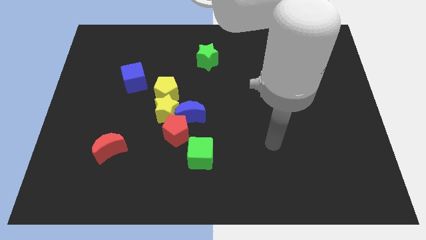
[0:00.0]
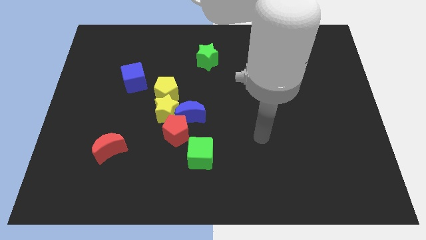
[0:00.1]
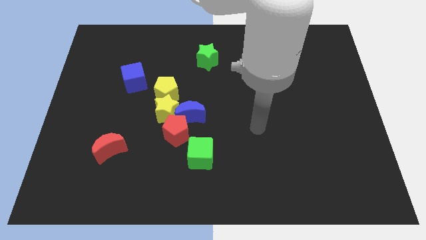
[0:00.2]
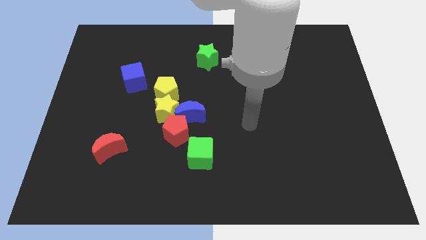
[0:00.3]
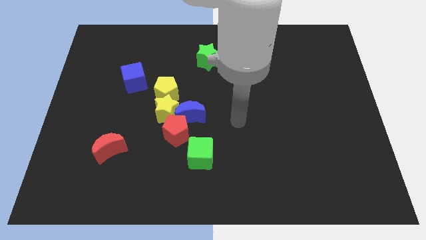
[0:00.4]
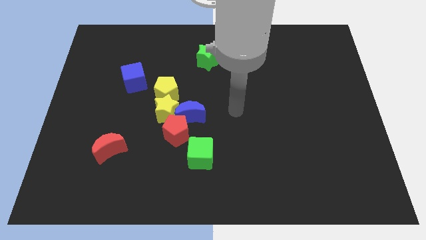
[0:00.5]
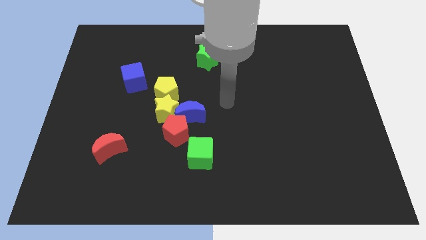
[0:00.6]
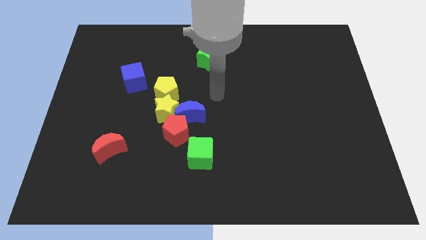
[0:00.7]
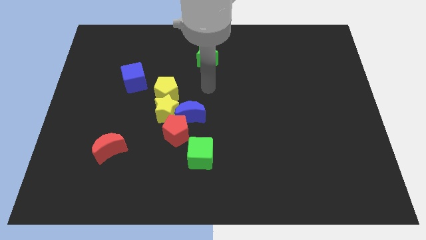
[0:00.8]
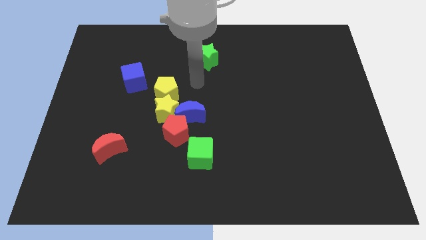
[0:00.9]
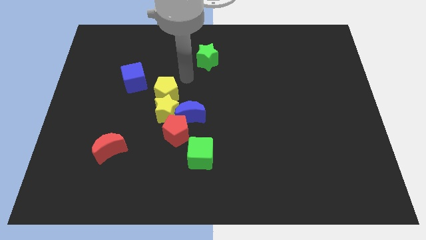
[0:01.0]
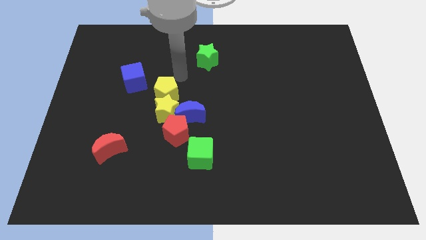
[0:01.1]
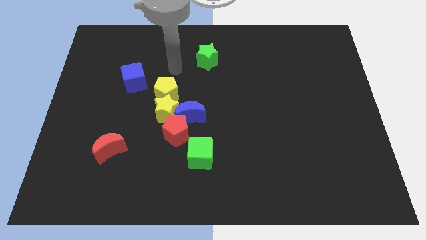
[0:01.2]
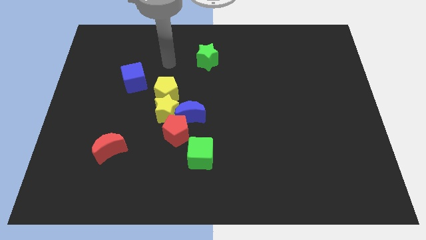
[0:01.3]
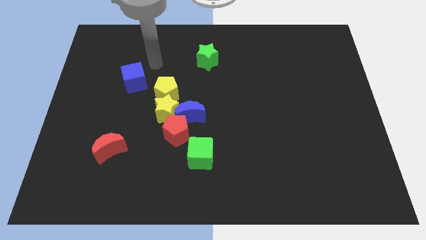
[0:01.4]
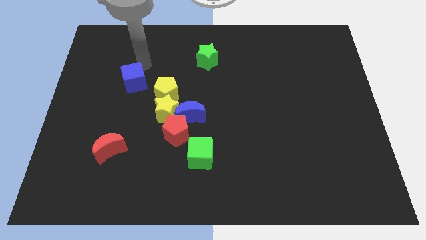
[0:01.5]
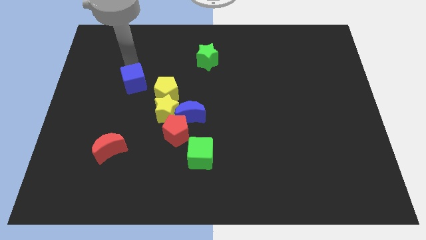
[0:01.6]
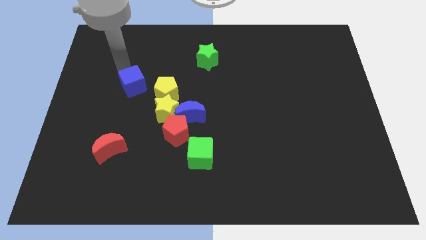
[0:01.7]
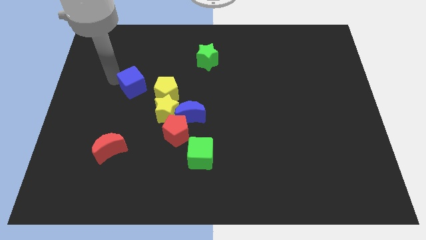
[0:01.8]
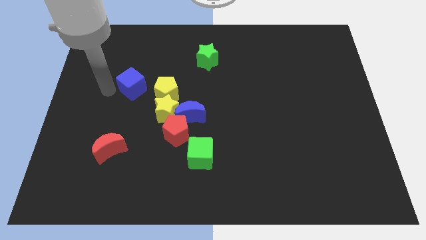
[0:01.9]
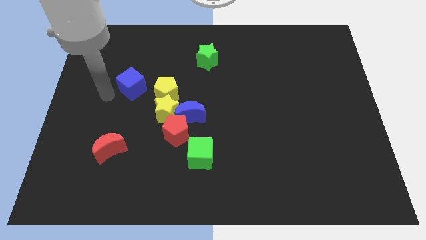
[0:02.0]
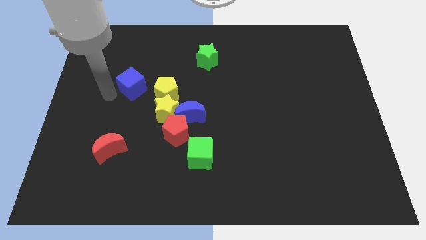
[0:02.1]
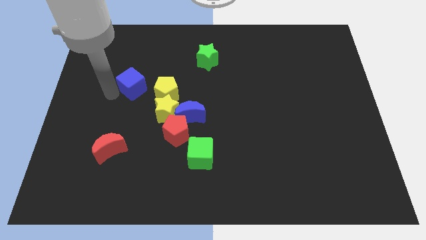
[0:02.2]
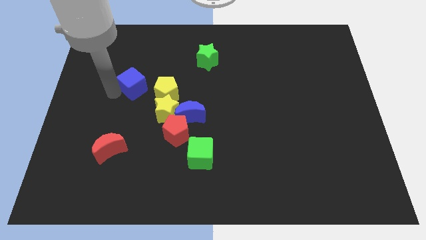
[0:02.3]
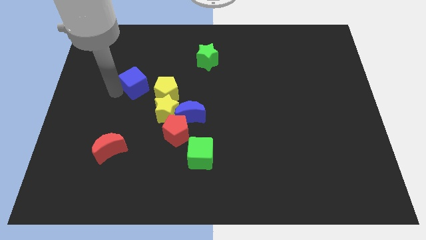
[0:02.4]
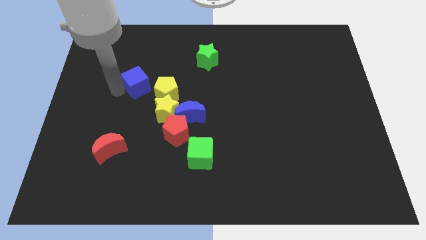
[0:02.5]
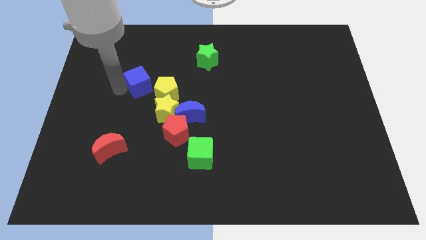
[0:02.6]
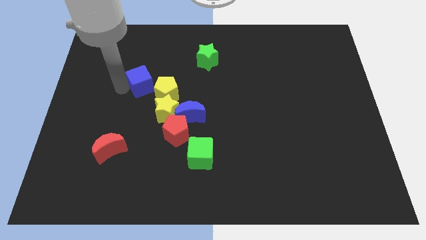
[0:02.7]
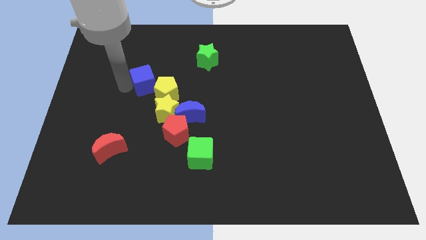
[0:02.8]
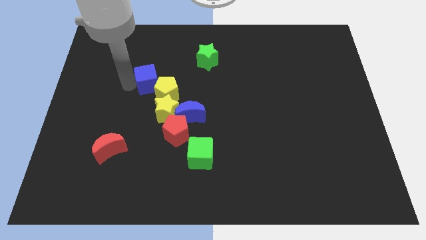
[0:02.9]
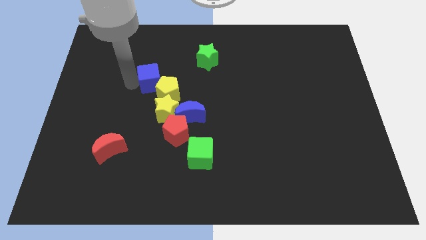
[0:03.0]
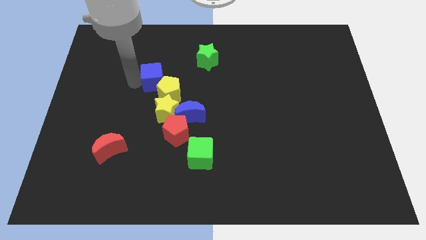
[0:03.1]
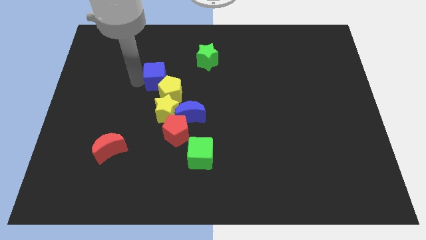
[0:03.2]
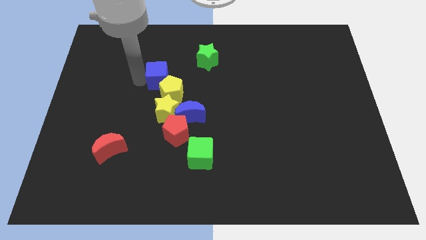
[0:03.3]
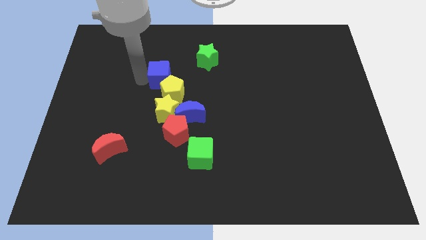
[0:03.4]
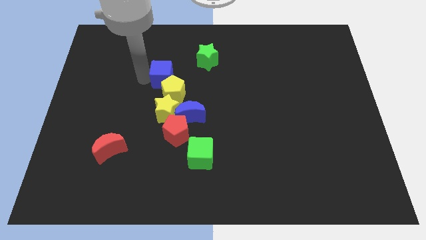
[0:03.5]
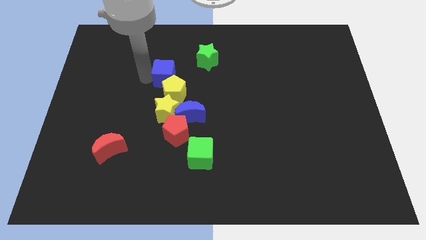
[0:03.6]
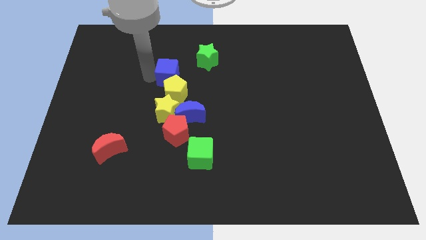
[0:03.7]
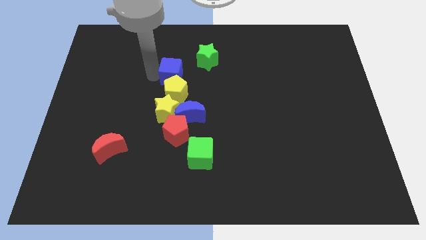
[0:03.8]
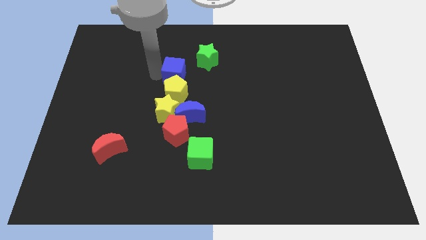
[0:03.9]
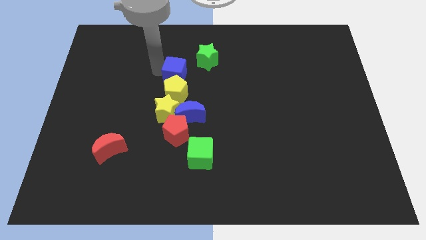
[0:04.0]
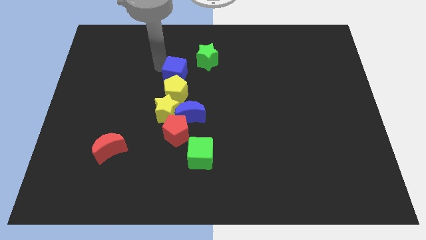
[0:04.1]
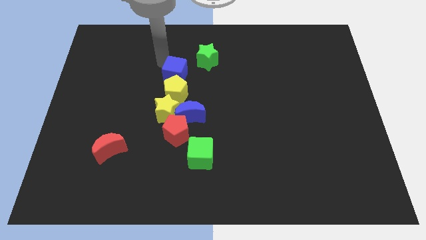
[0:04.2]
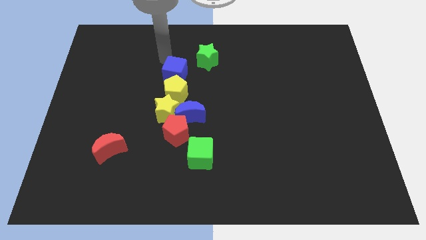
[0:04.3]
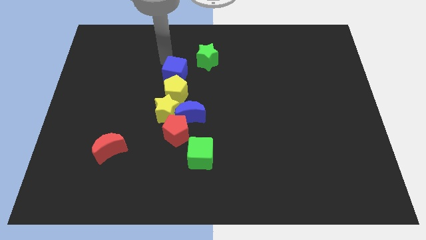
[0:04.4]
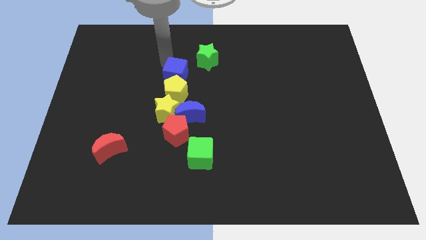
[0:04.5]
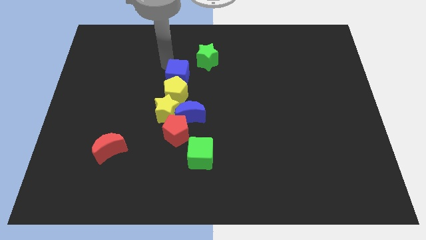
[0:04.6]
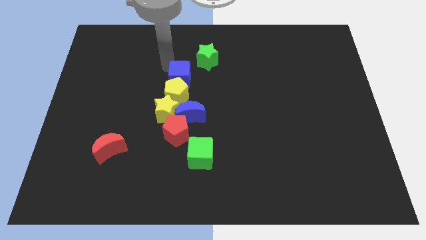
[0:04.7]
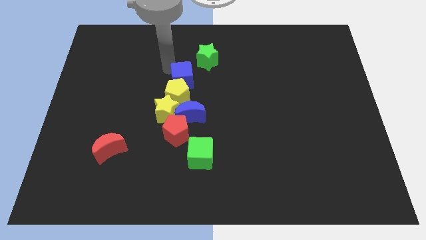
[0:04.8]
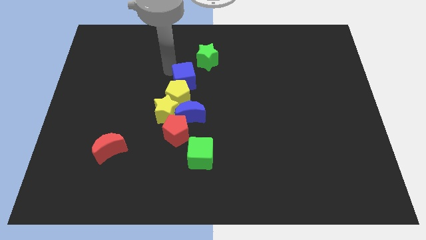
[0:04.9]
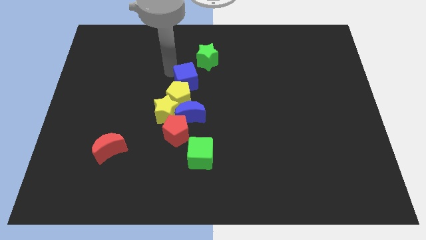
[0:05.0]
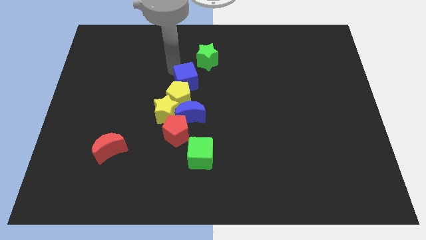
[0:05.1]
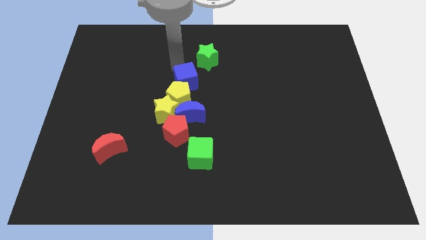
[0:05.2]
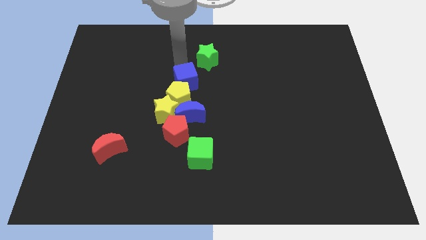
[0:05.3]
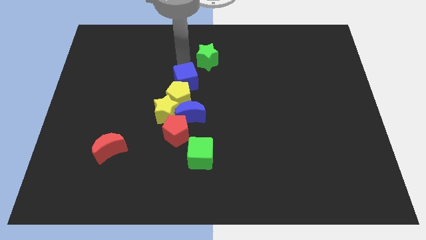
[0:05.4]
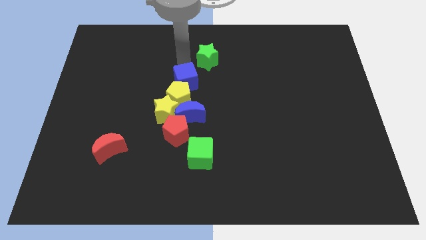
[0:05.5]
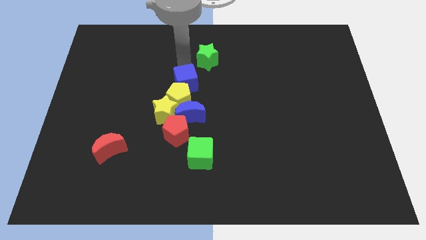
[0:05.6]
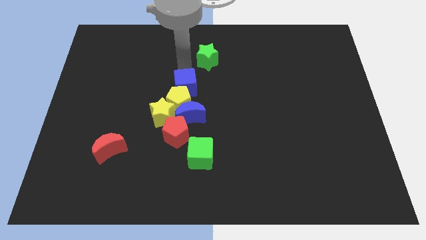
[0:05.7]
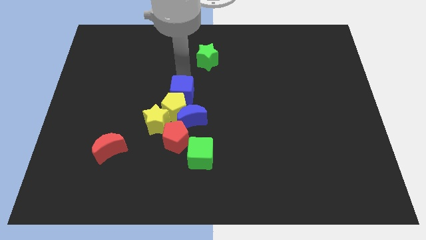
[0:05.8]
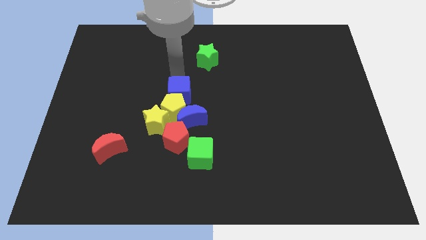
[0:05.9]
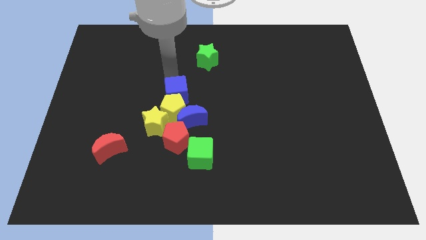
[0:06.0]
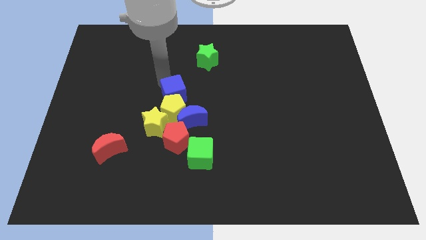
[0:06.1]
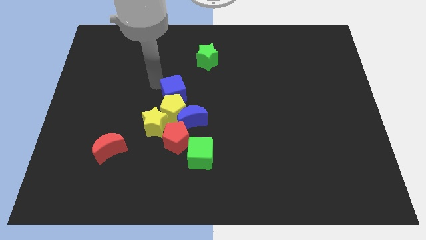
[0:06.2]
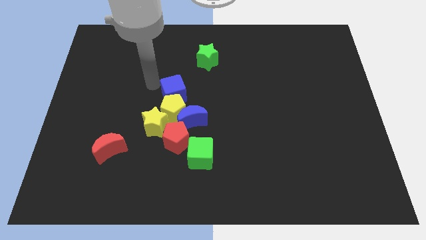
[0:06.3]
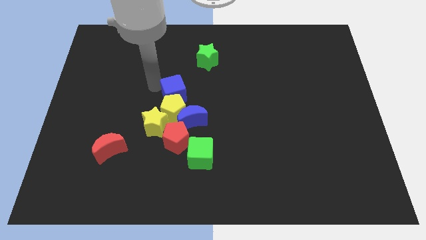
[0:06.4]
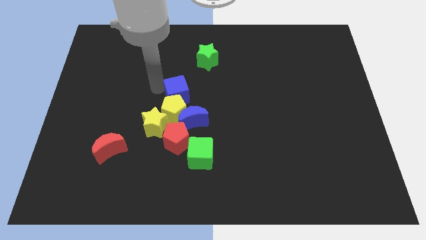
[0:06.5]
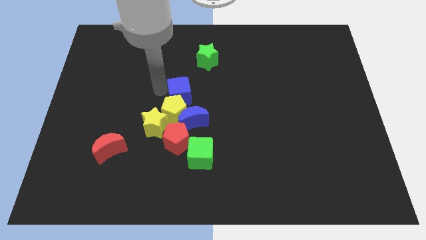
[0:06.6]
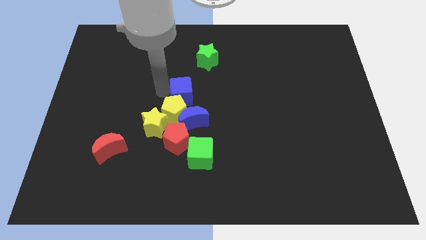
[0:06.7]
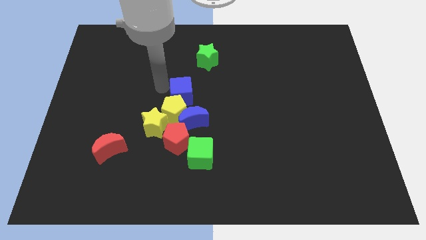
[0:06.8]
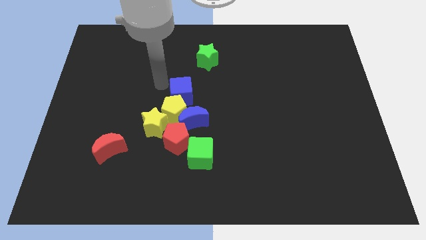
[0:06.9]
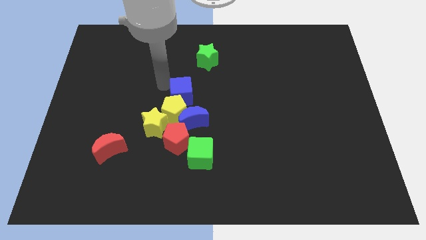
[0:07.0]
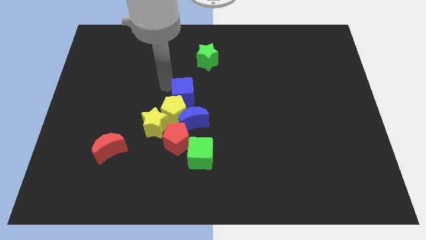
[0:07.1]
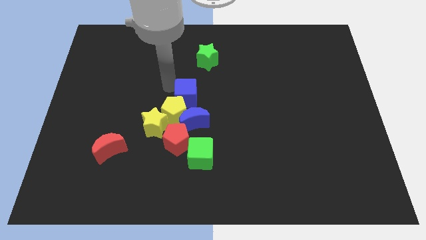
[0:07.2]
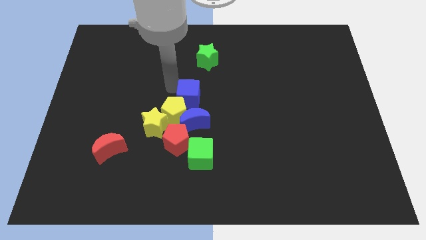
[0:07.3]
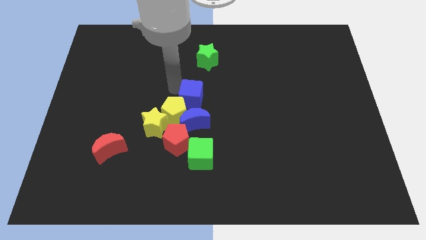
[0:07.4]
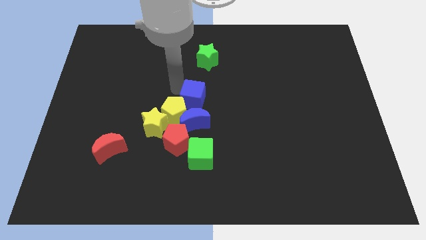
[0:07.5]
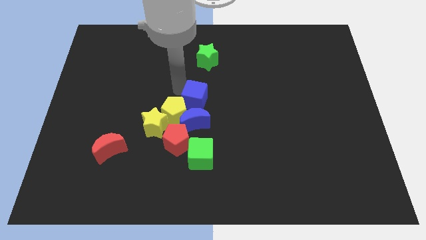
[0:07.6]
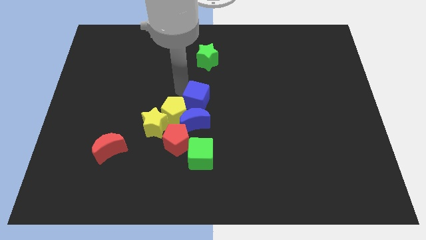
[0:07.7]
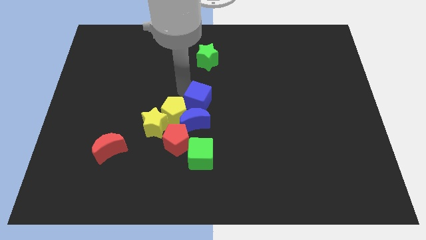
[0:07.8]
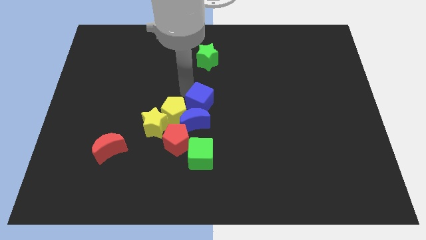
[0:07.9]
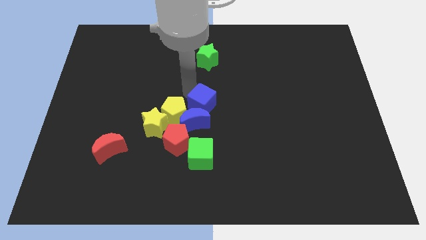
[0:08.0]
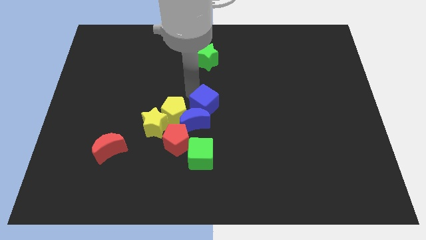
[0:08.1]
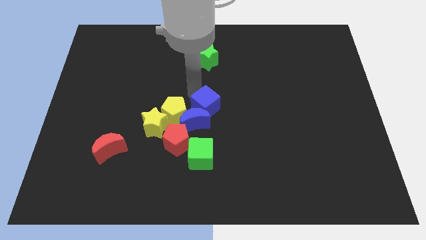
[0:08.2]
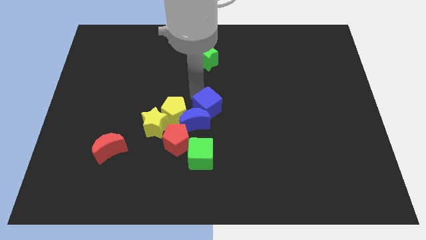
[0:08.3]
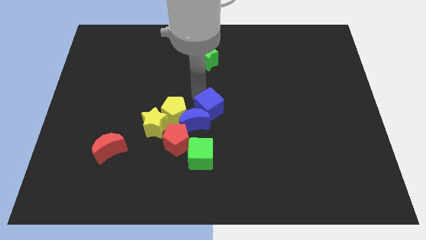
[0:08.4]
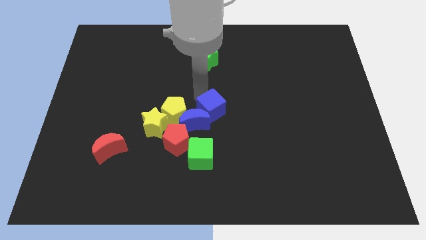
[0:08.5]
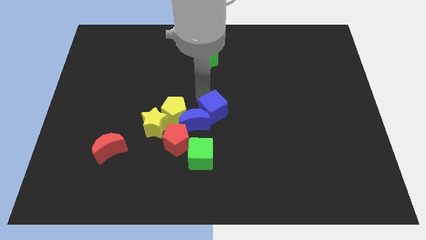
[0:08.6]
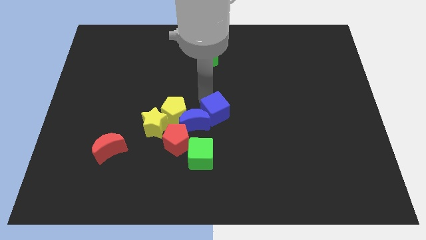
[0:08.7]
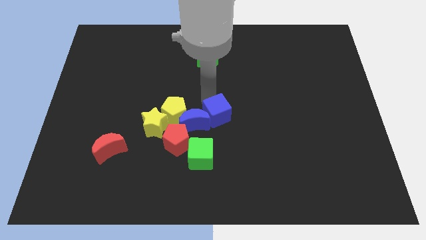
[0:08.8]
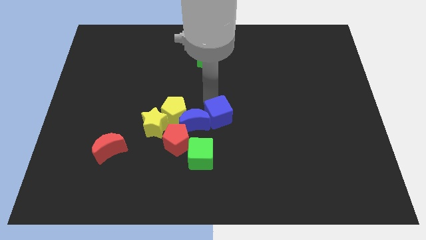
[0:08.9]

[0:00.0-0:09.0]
move the blue cube downwards and then right
